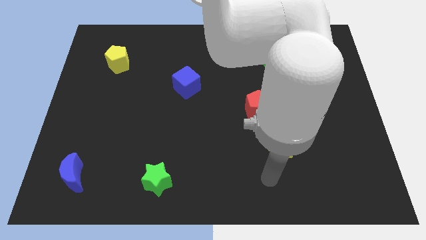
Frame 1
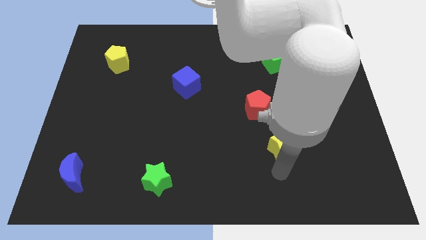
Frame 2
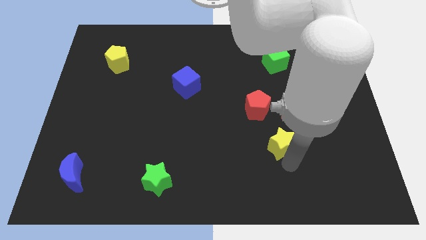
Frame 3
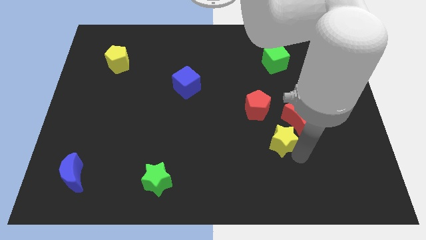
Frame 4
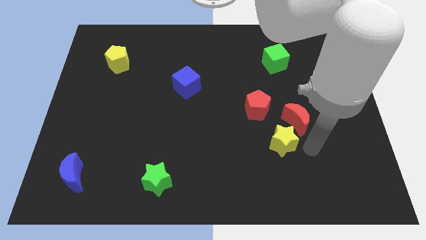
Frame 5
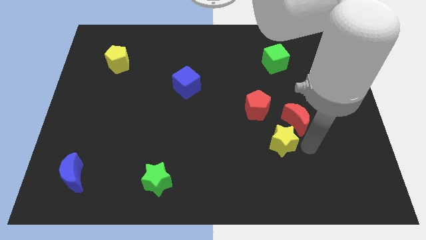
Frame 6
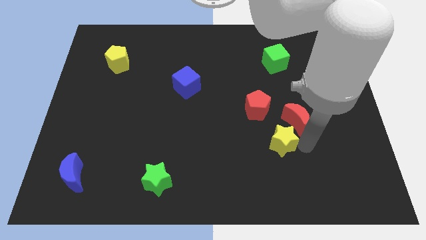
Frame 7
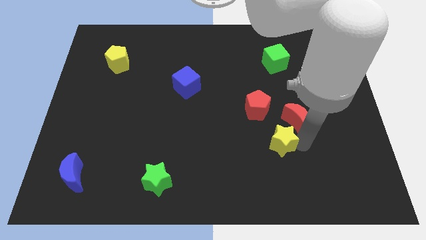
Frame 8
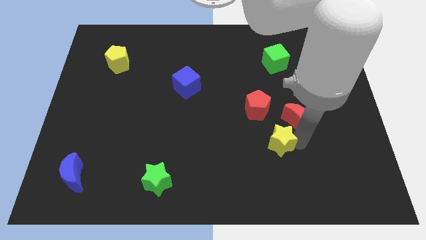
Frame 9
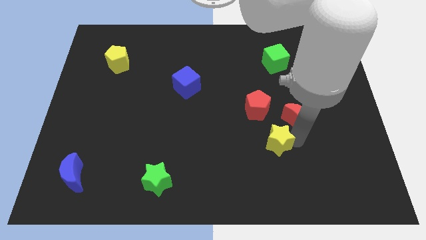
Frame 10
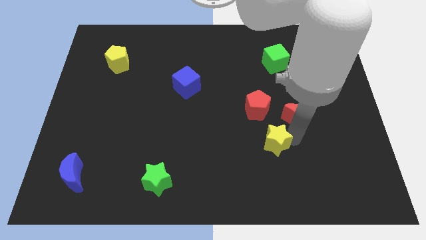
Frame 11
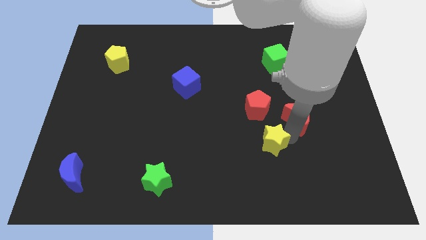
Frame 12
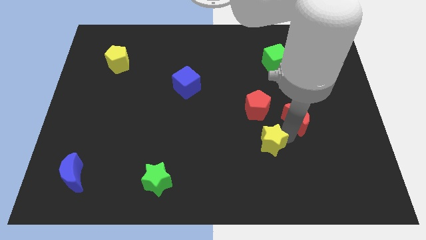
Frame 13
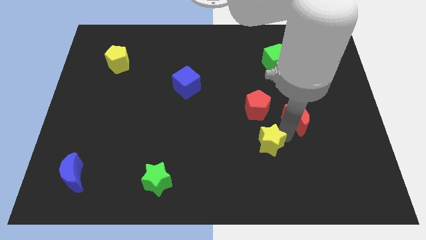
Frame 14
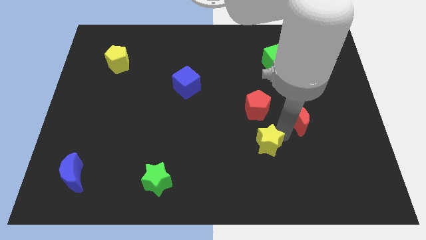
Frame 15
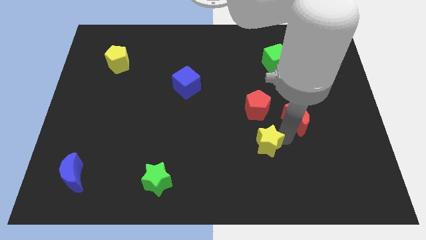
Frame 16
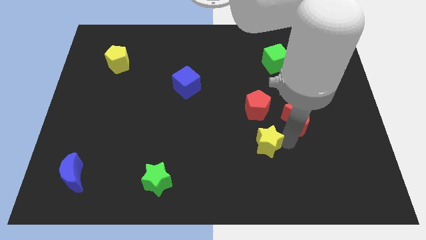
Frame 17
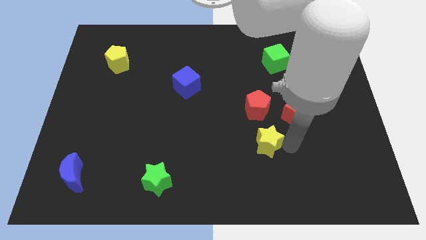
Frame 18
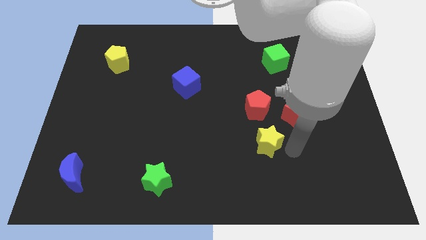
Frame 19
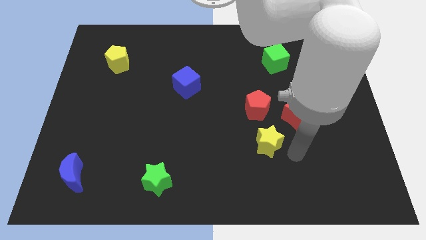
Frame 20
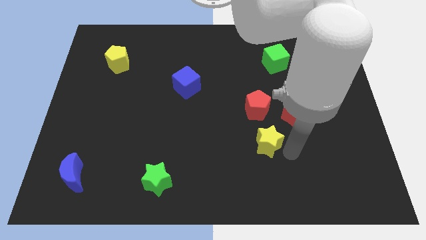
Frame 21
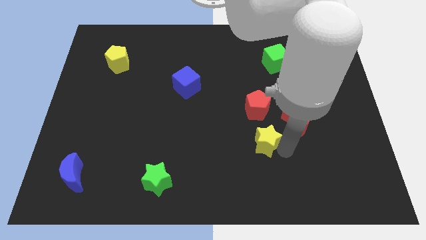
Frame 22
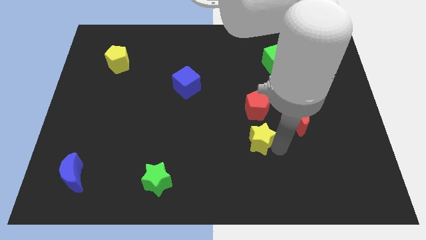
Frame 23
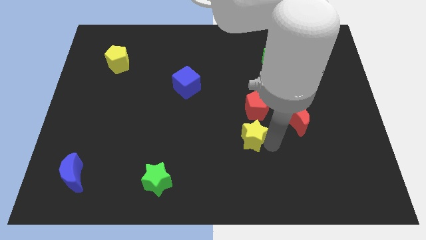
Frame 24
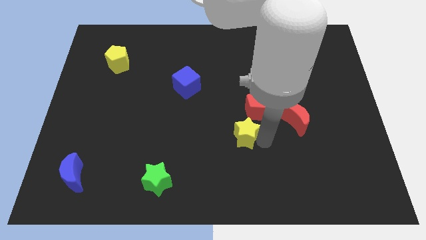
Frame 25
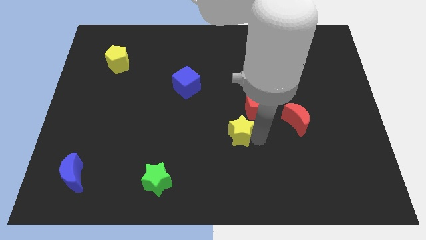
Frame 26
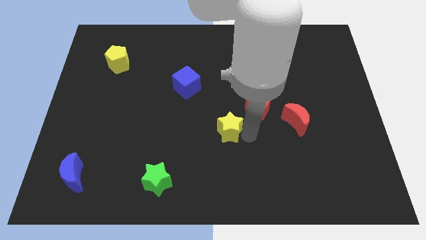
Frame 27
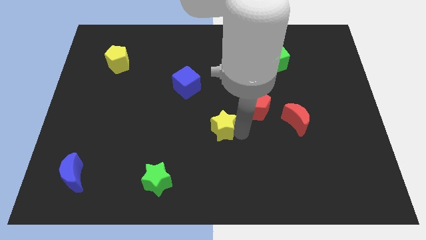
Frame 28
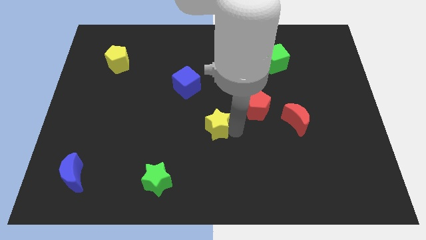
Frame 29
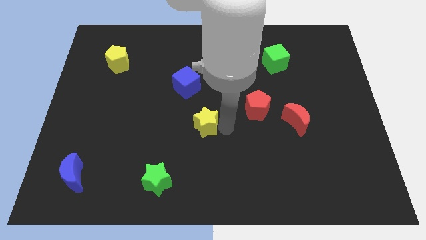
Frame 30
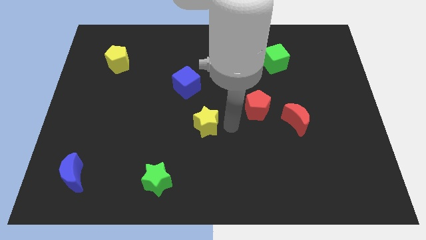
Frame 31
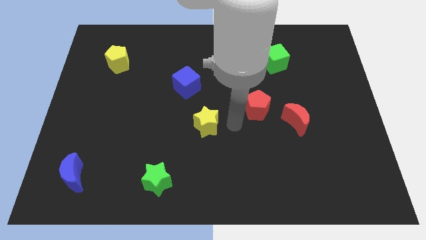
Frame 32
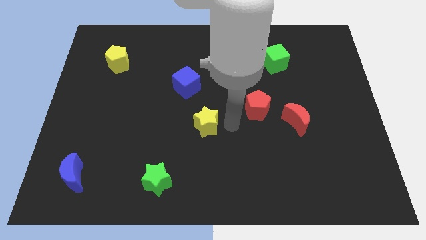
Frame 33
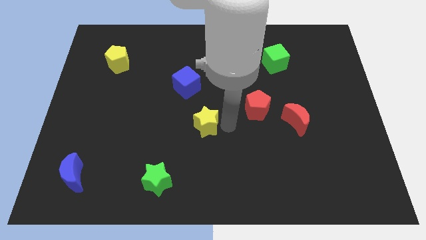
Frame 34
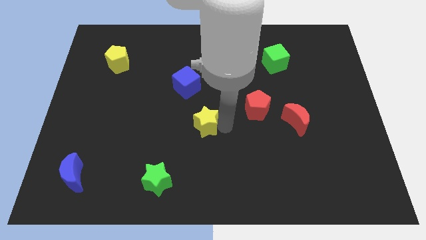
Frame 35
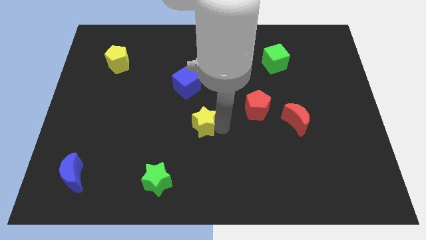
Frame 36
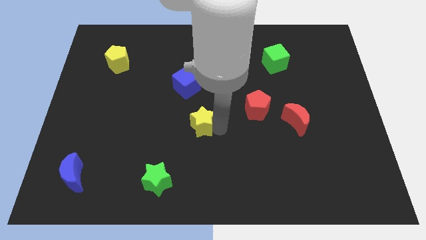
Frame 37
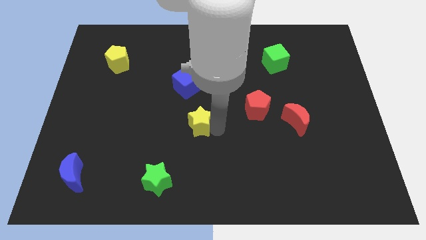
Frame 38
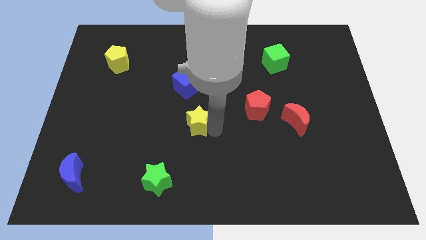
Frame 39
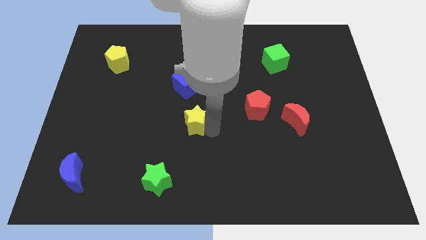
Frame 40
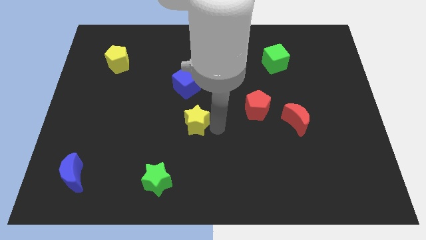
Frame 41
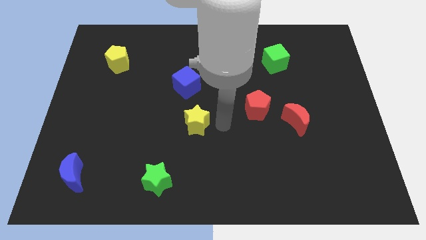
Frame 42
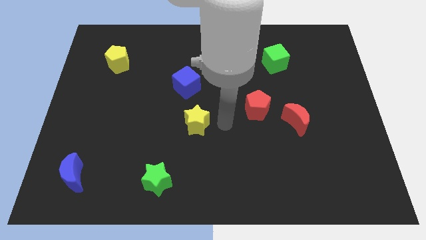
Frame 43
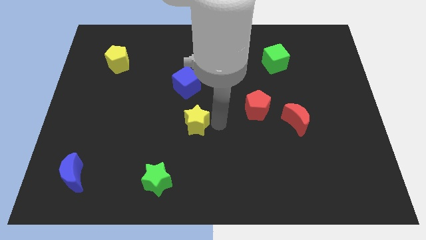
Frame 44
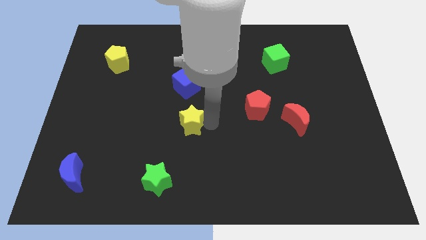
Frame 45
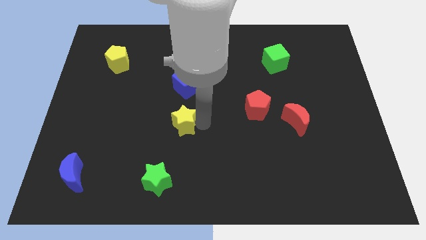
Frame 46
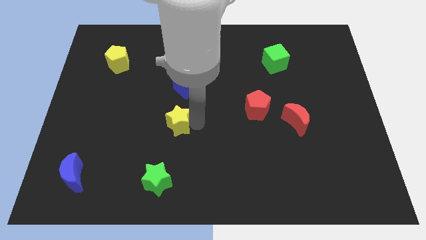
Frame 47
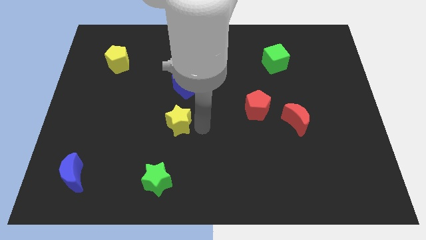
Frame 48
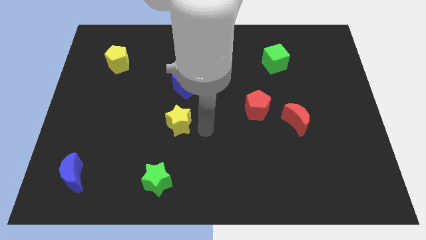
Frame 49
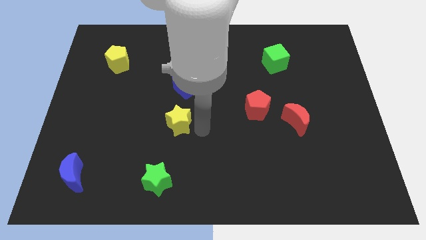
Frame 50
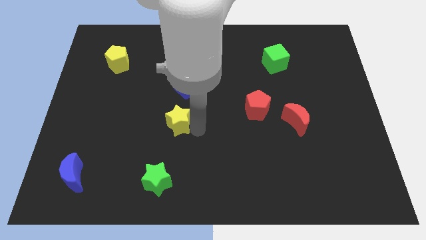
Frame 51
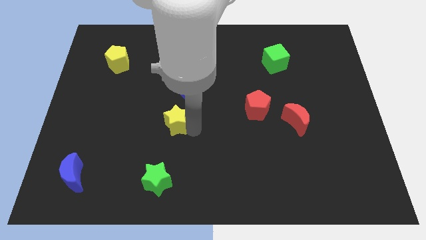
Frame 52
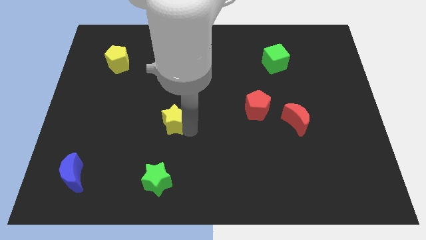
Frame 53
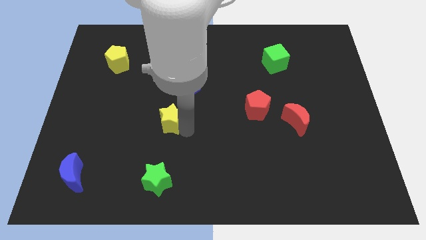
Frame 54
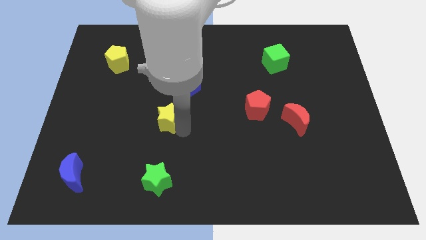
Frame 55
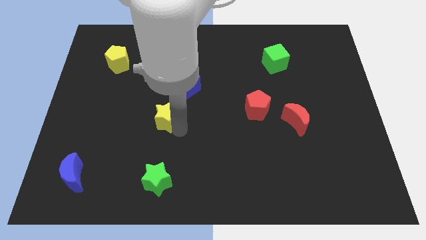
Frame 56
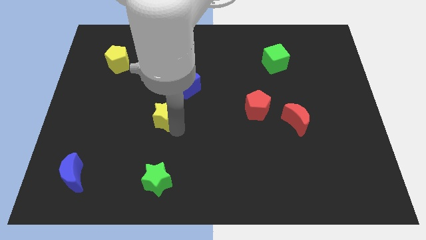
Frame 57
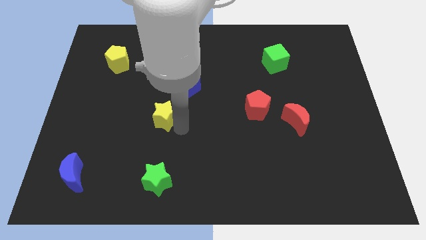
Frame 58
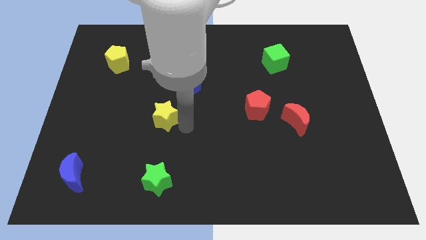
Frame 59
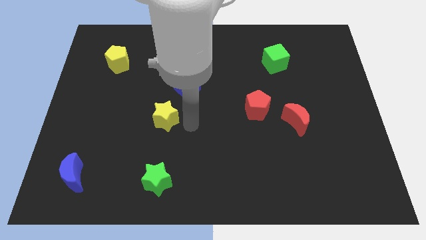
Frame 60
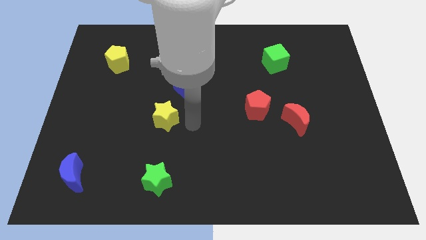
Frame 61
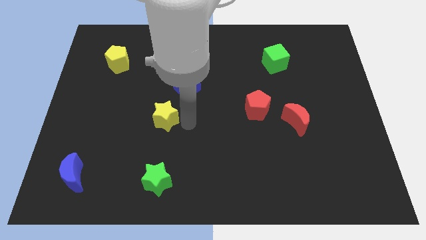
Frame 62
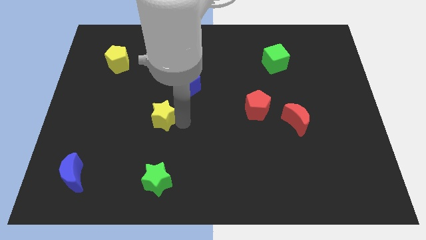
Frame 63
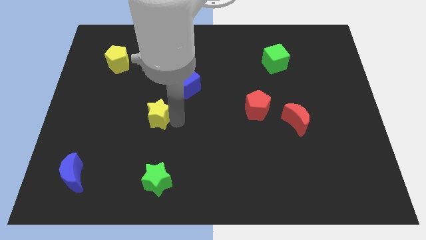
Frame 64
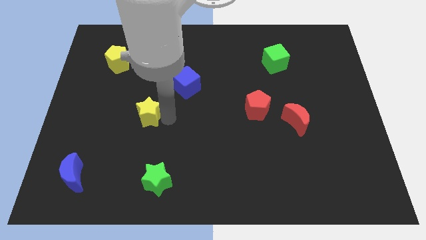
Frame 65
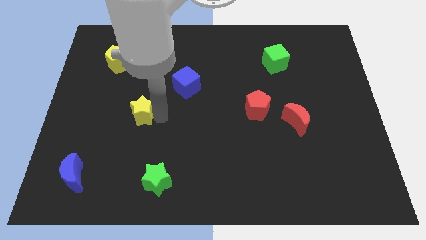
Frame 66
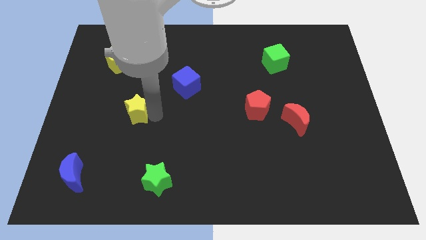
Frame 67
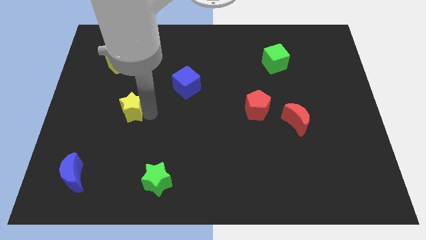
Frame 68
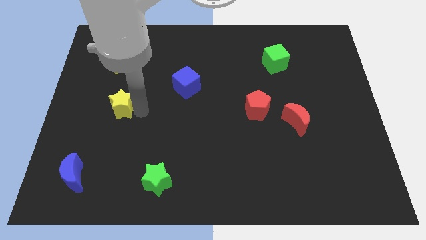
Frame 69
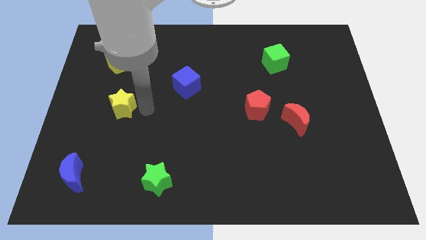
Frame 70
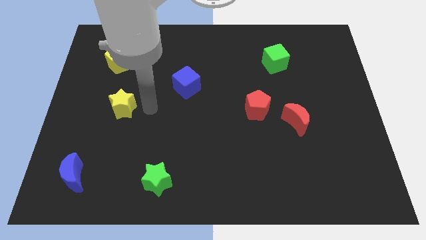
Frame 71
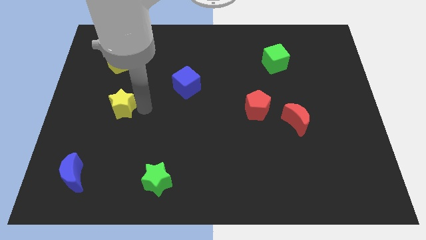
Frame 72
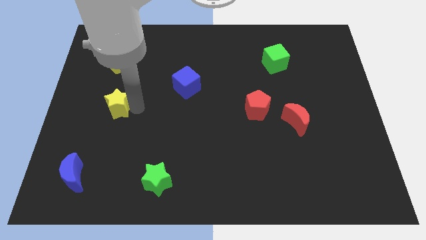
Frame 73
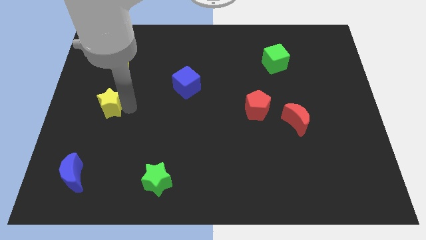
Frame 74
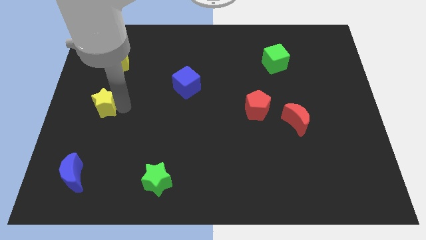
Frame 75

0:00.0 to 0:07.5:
put the yellow star to the center left
